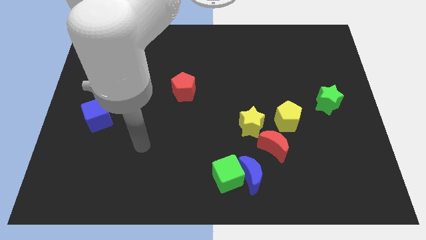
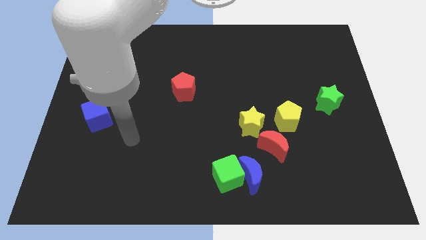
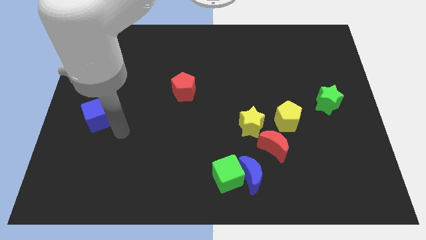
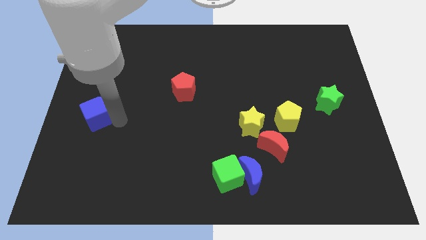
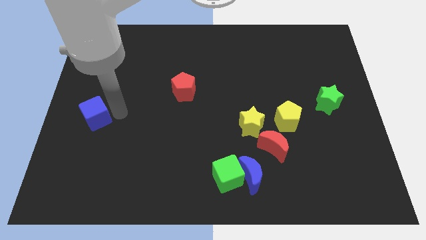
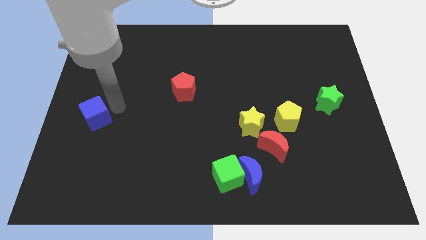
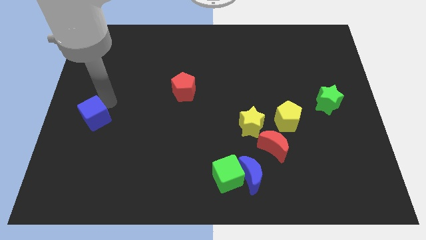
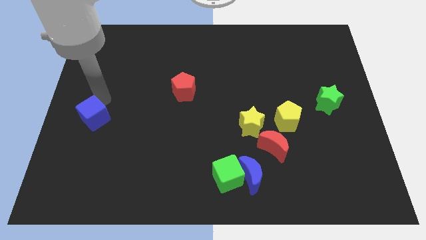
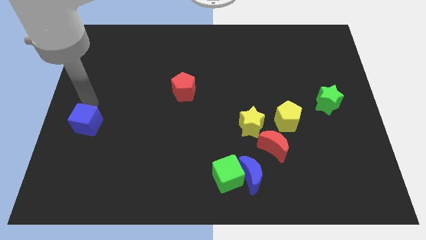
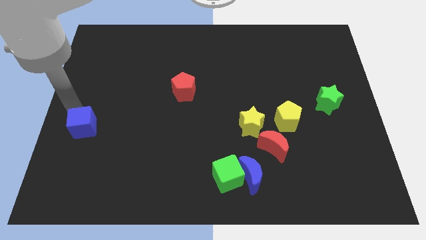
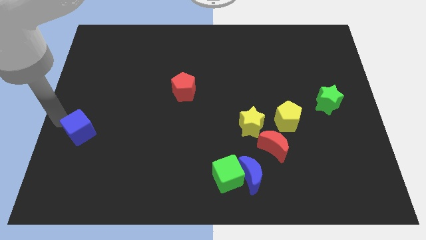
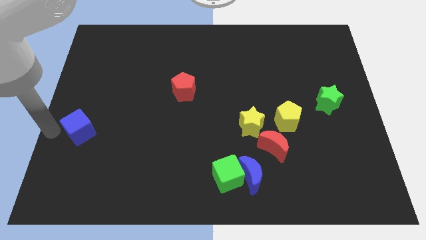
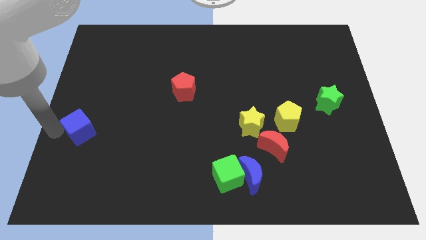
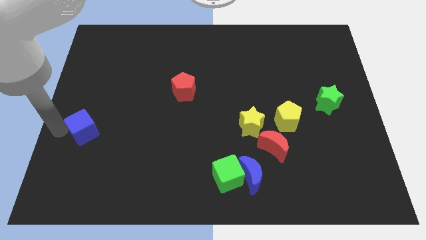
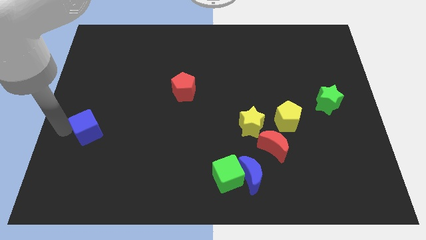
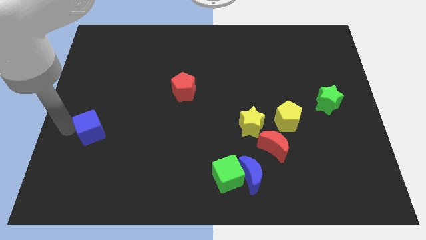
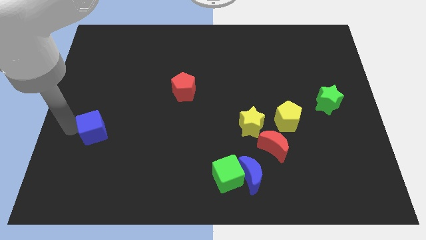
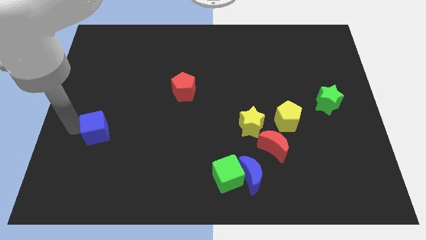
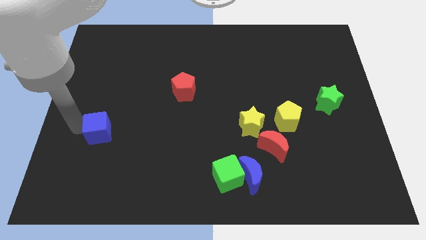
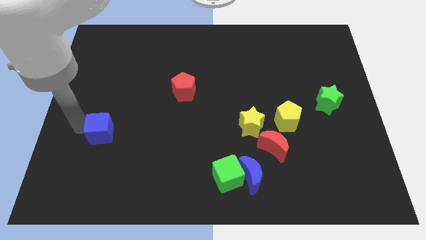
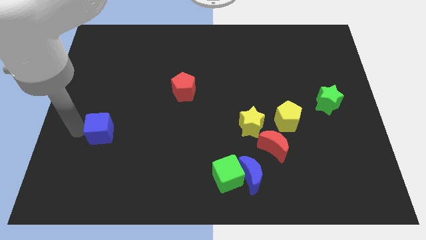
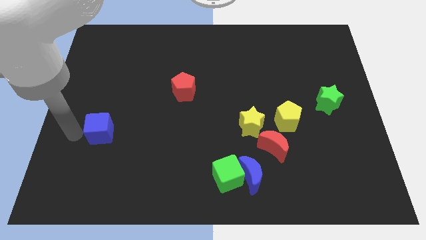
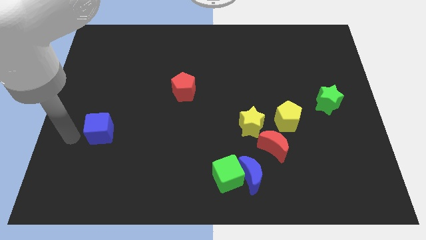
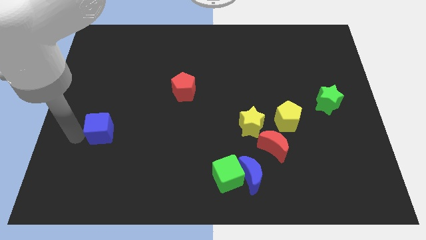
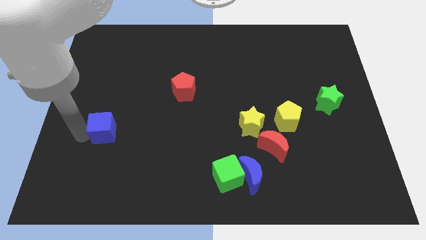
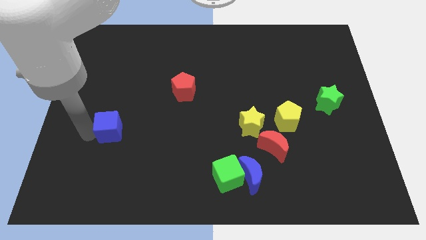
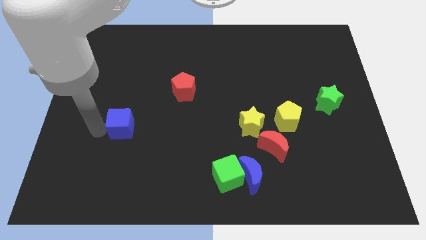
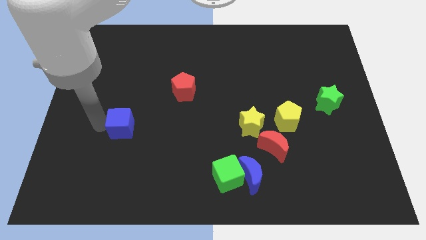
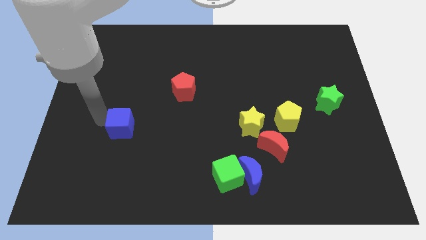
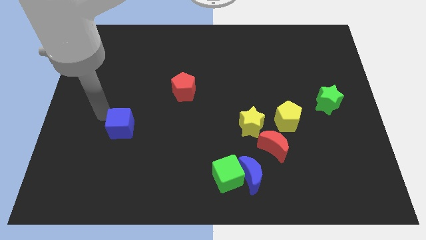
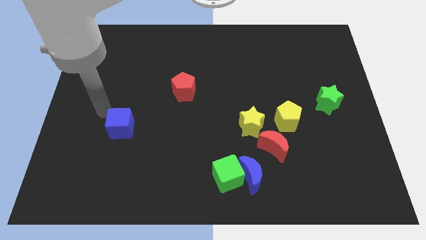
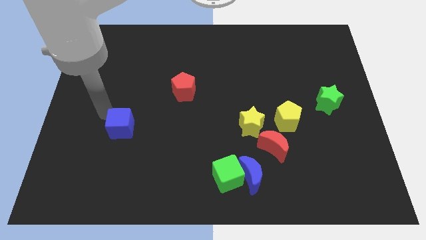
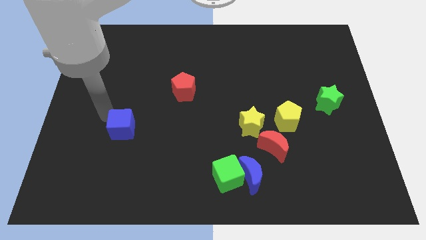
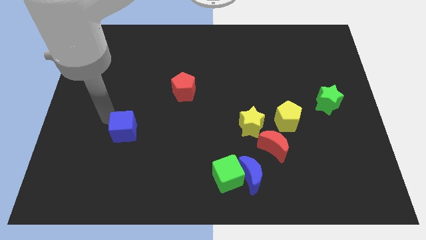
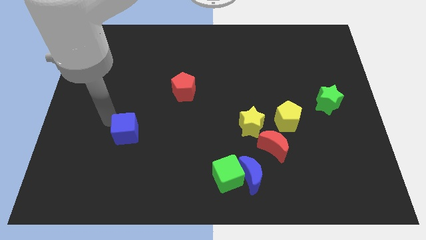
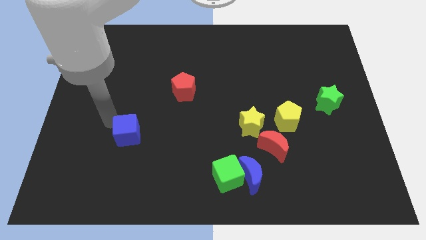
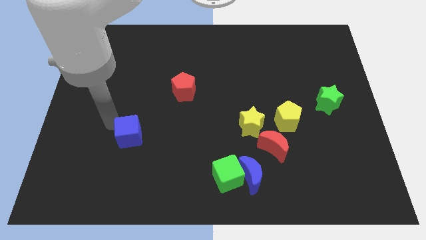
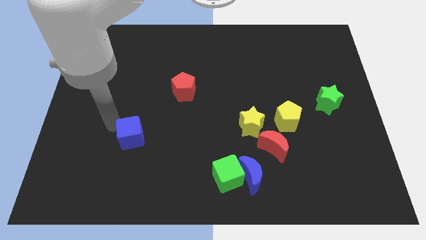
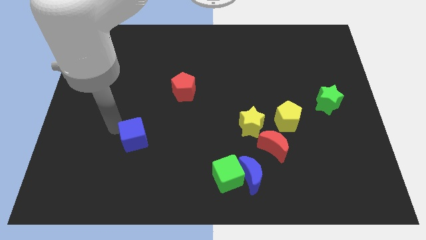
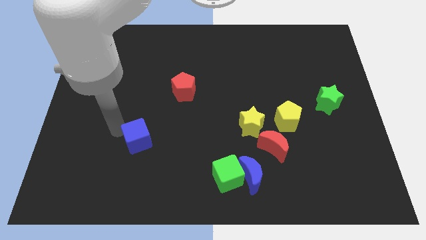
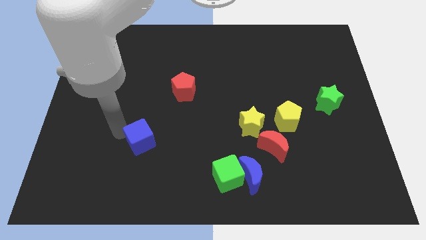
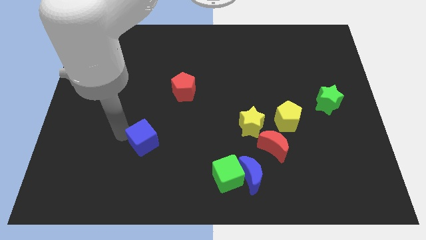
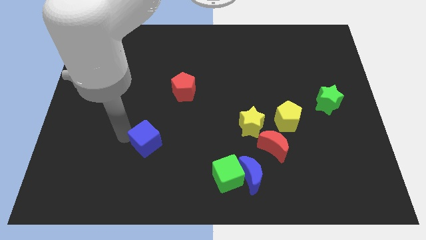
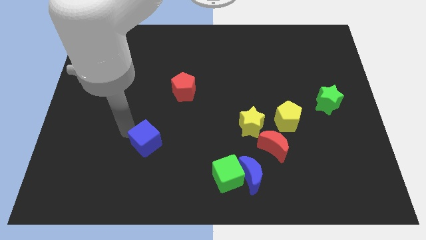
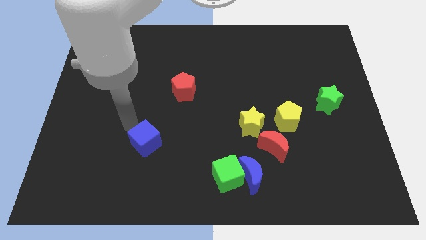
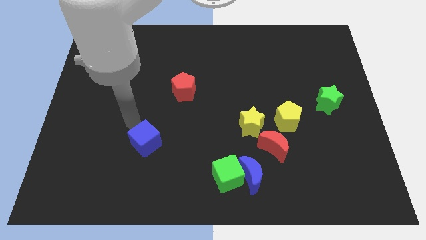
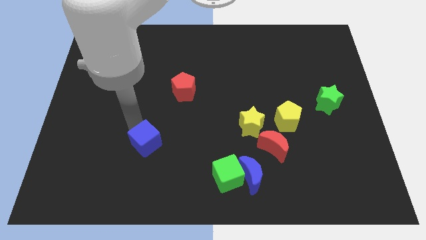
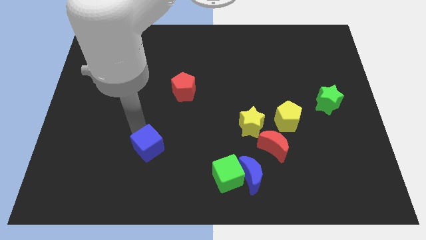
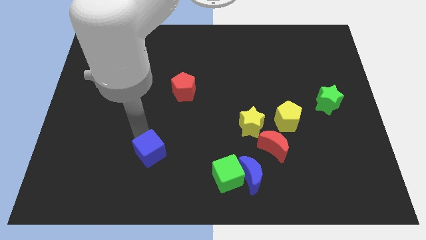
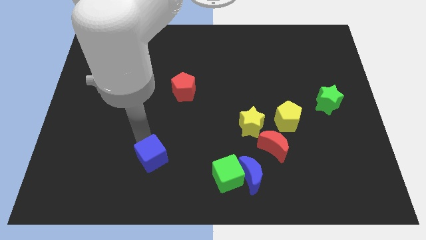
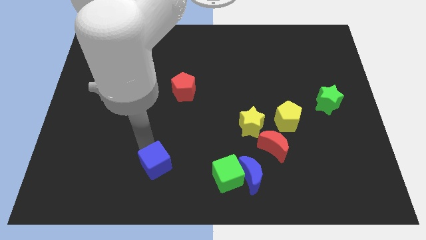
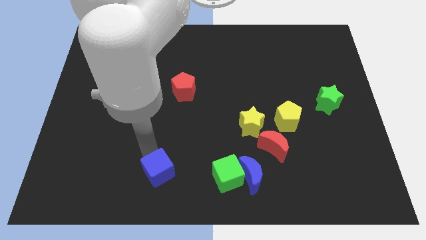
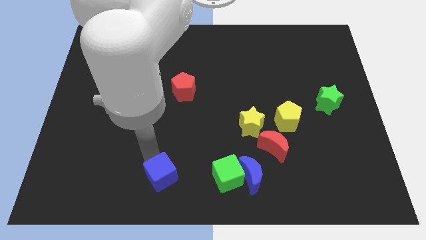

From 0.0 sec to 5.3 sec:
slide the blue cube to the bottom

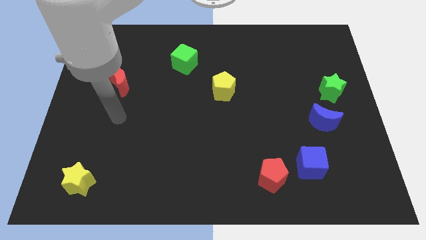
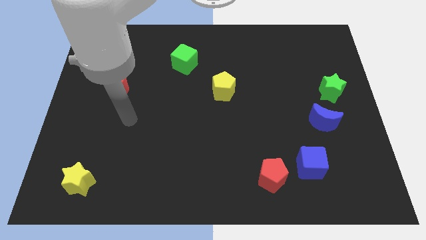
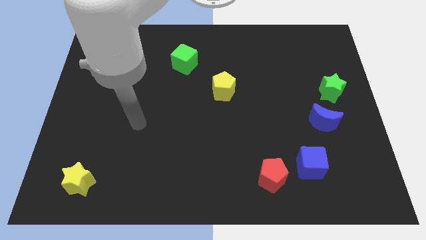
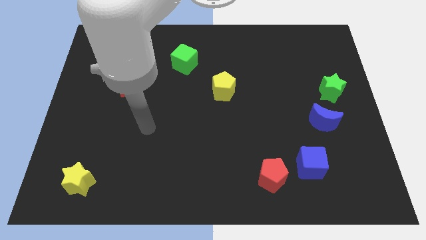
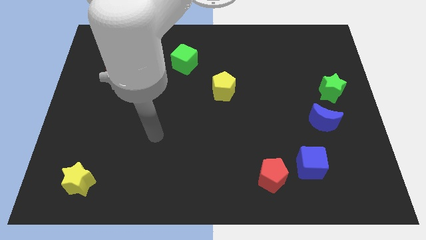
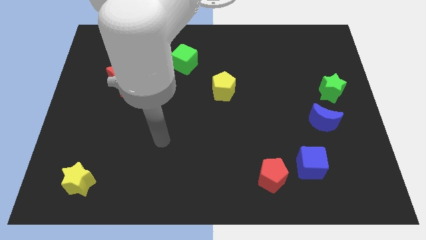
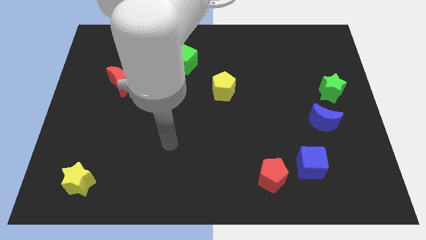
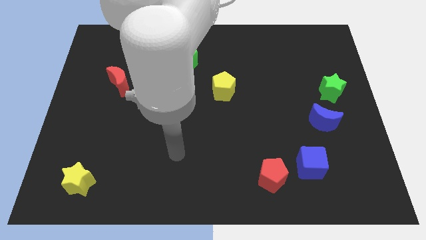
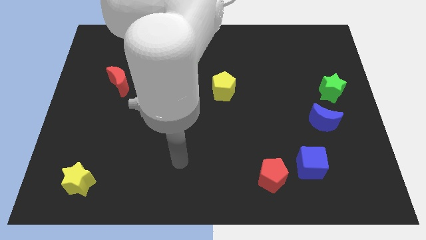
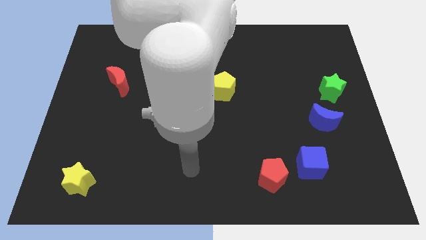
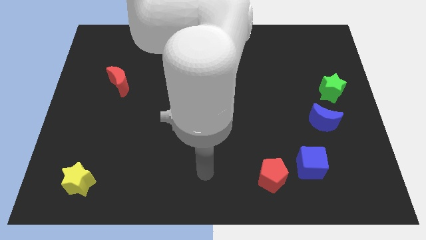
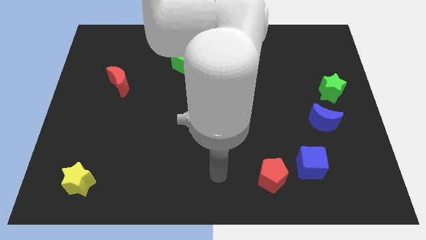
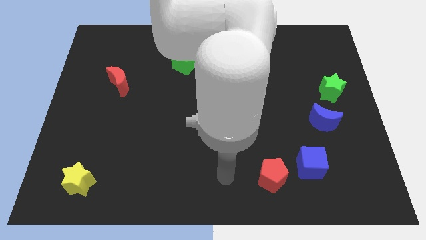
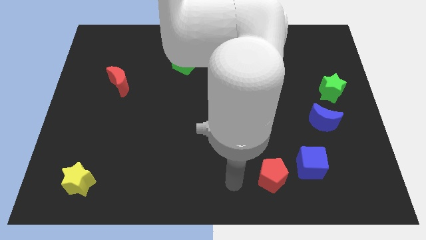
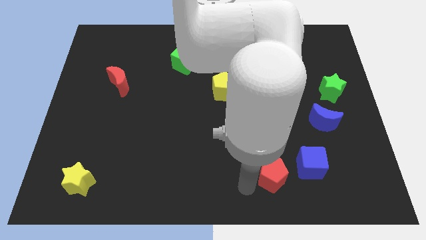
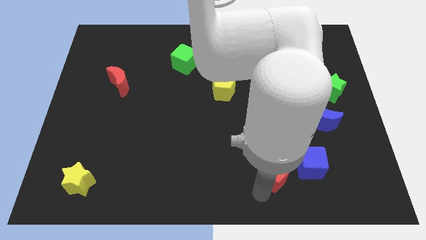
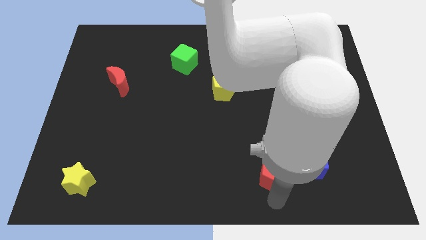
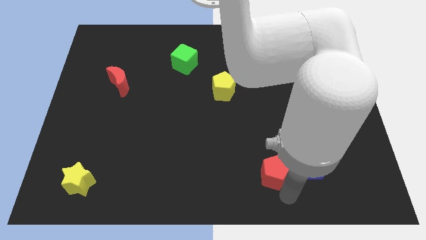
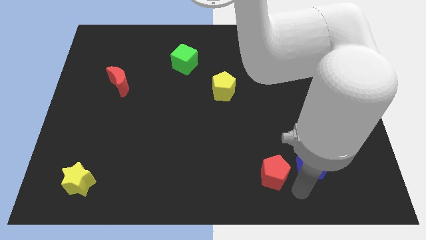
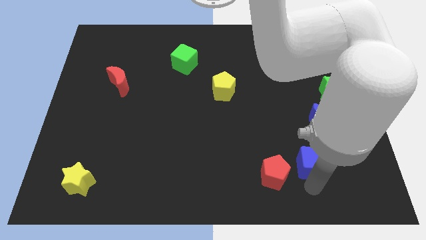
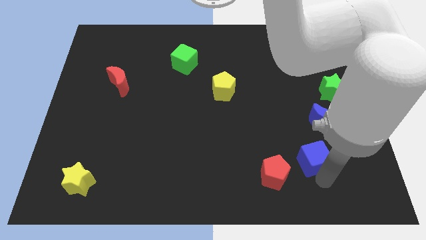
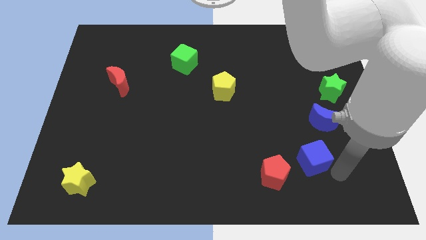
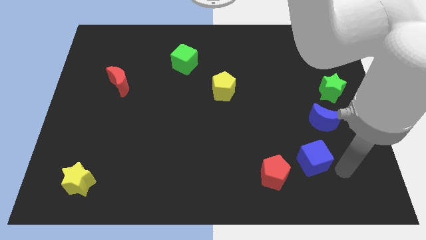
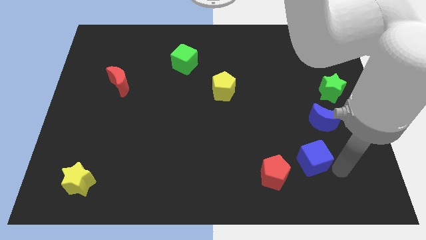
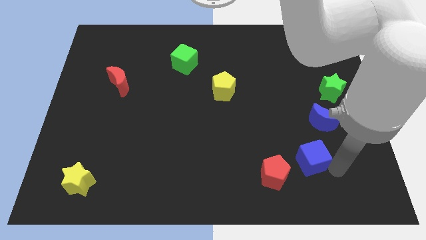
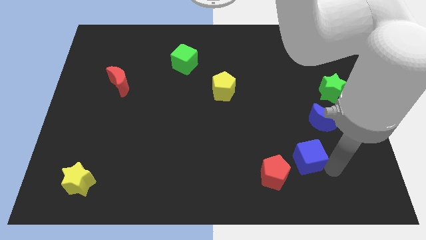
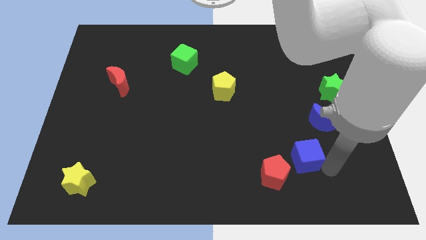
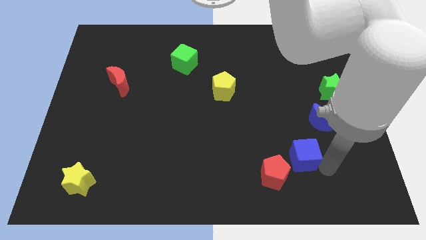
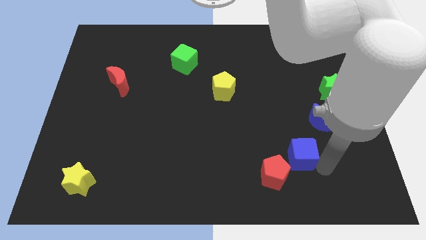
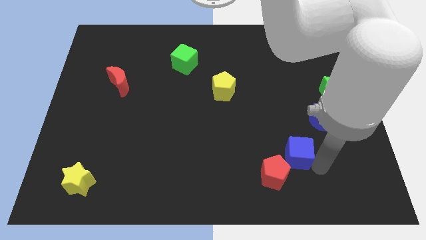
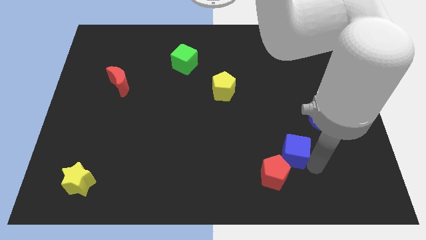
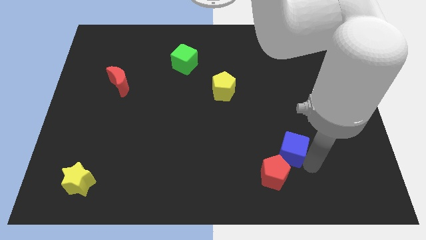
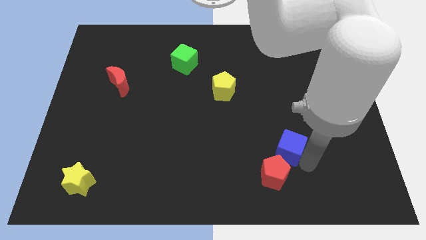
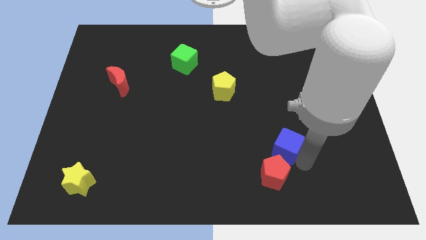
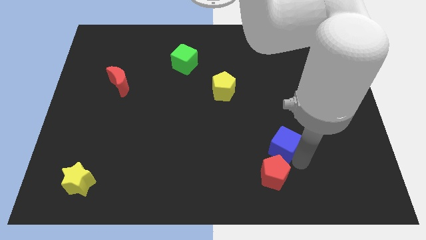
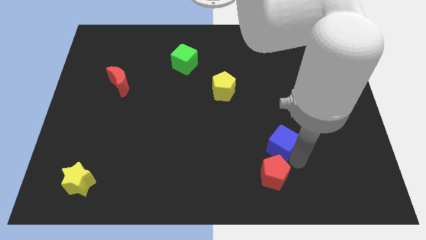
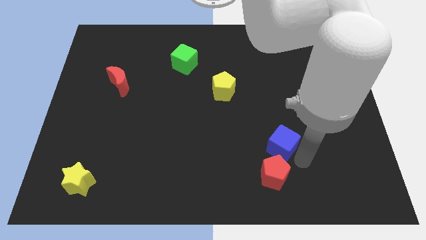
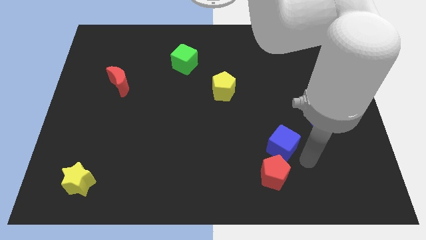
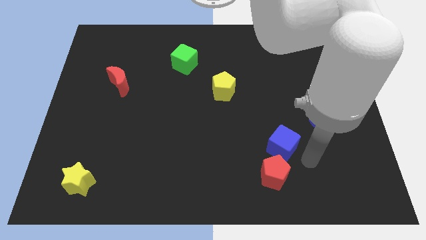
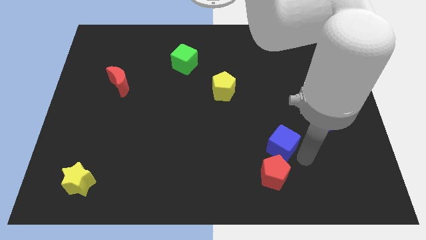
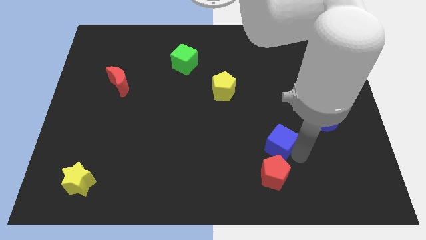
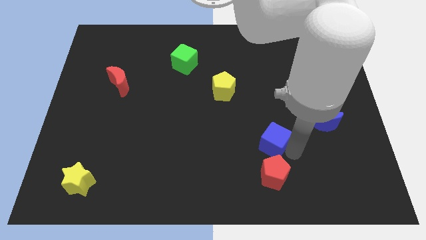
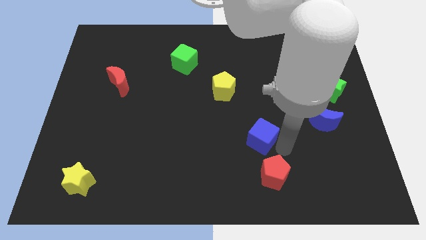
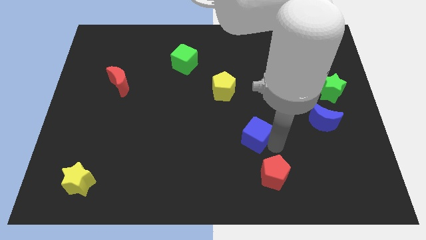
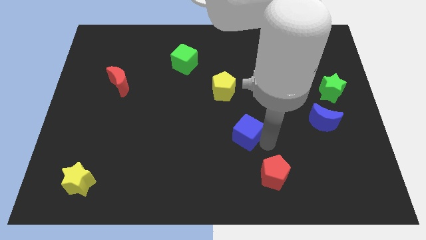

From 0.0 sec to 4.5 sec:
move the blue cube to the middle
